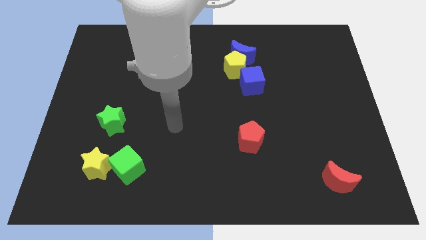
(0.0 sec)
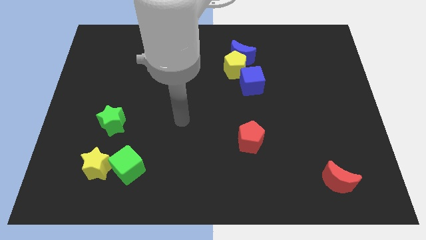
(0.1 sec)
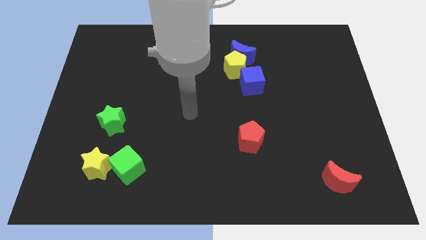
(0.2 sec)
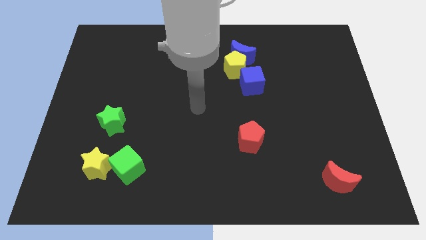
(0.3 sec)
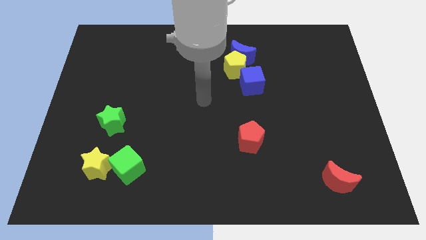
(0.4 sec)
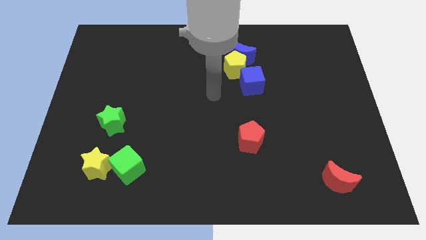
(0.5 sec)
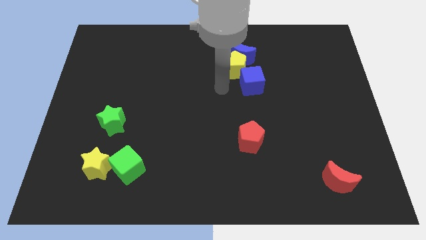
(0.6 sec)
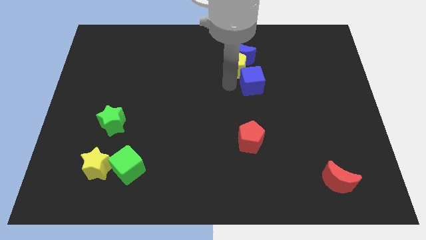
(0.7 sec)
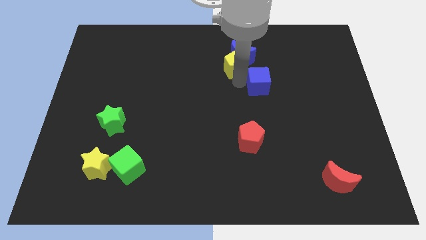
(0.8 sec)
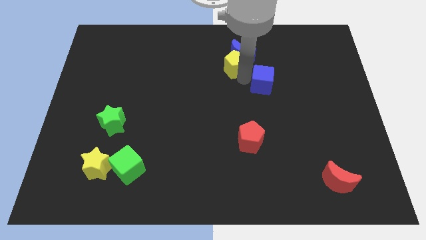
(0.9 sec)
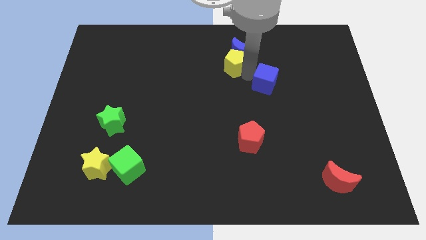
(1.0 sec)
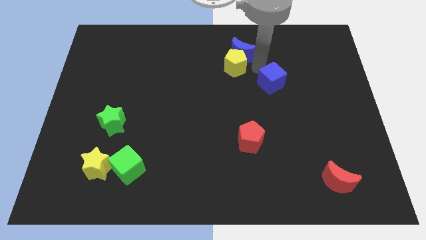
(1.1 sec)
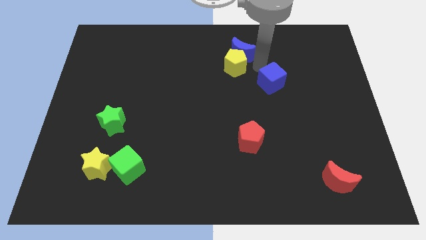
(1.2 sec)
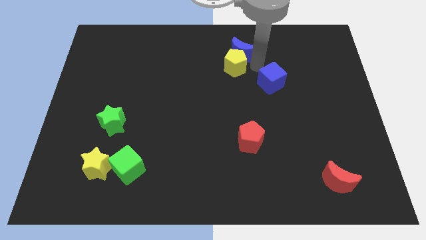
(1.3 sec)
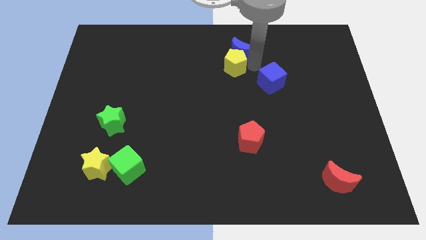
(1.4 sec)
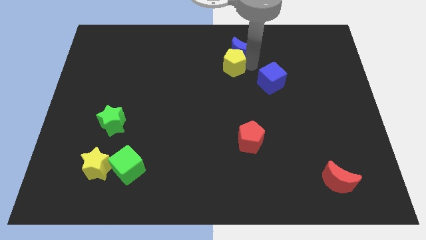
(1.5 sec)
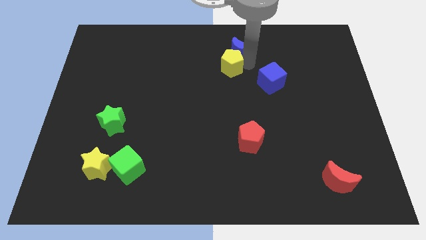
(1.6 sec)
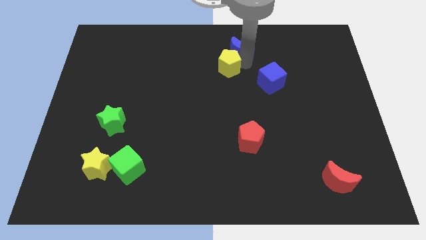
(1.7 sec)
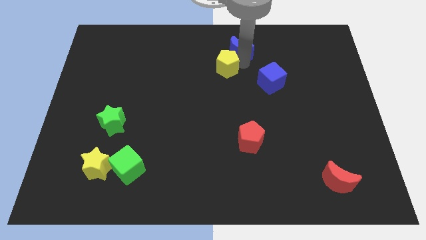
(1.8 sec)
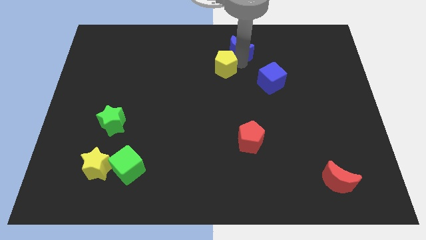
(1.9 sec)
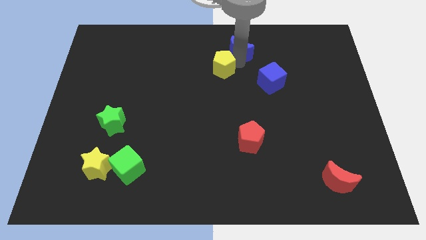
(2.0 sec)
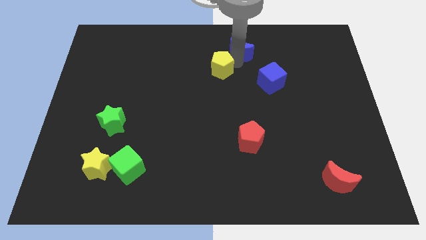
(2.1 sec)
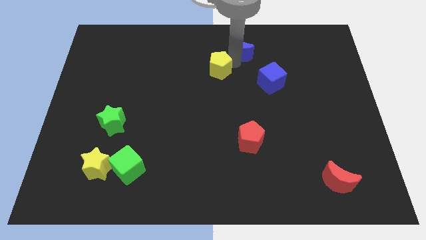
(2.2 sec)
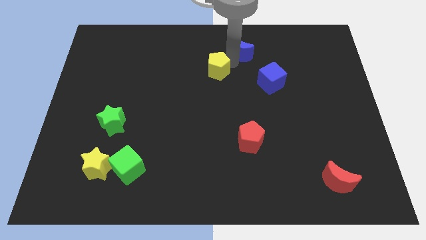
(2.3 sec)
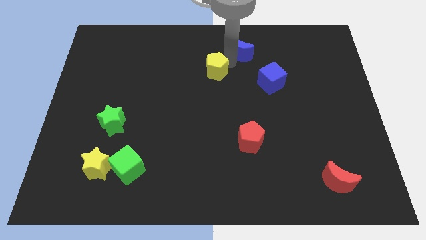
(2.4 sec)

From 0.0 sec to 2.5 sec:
separate the yellow pentagon from the blue moon and blue cube

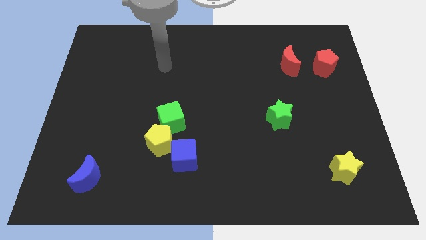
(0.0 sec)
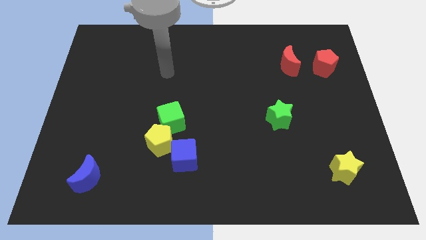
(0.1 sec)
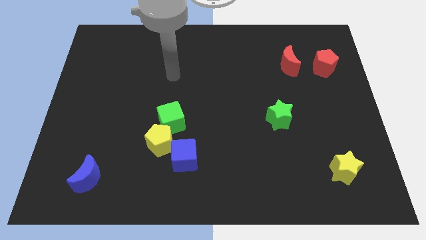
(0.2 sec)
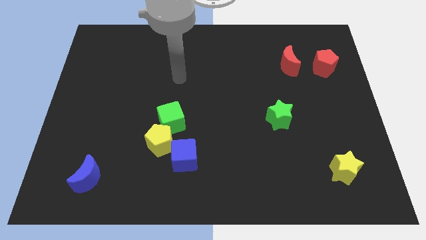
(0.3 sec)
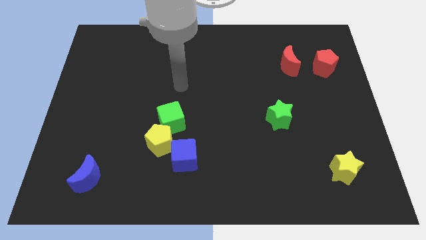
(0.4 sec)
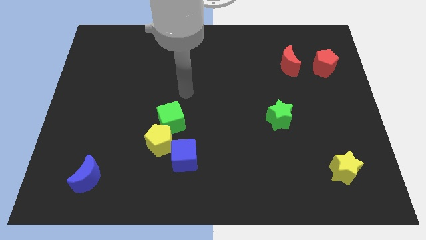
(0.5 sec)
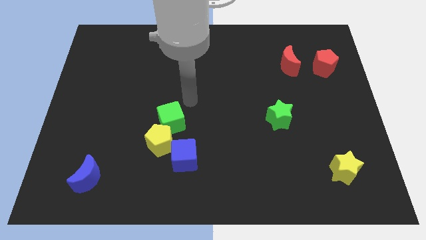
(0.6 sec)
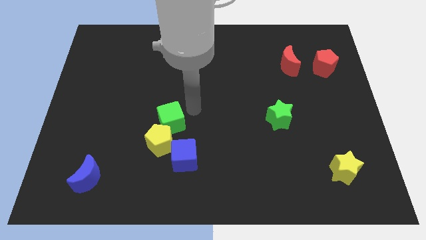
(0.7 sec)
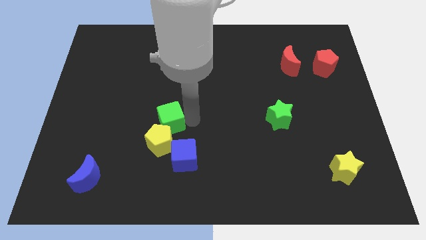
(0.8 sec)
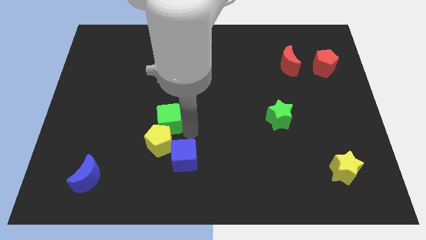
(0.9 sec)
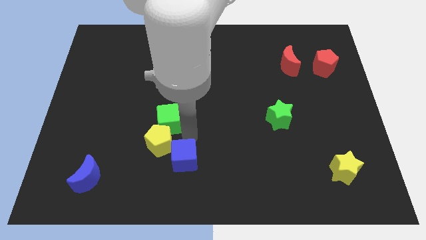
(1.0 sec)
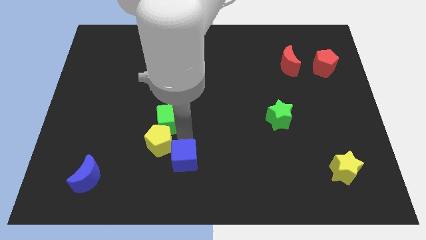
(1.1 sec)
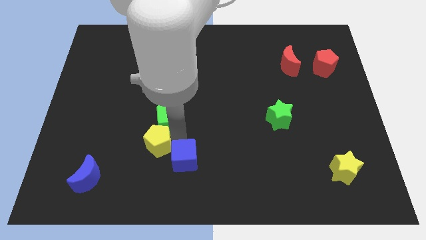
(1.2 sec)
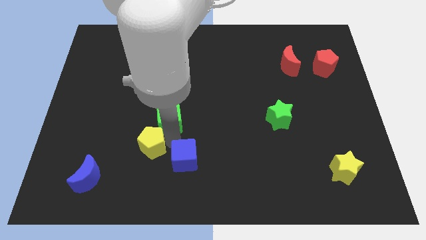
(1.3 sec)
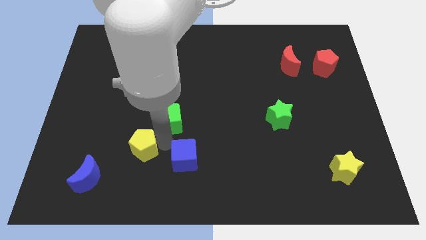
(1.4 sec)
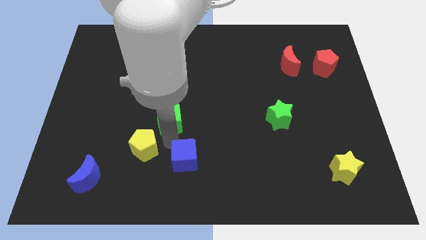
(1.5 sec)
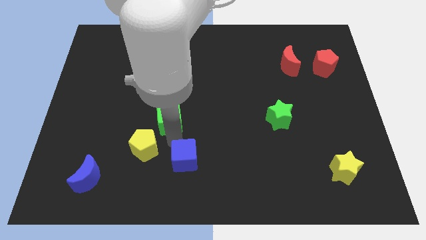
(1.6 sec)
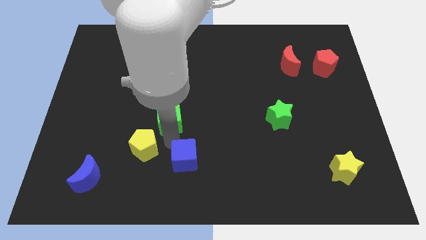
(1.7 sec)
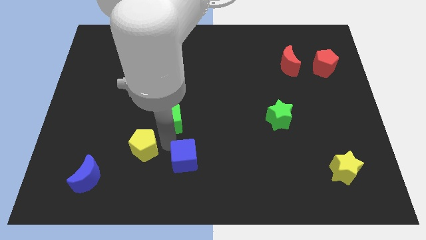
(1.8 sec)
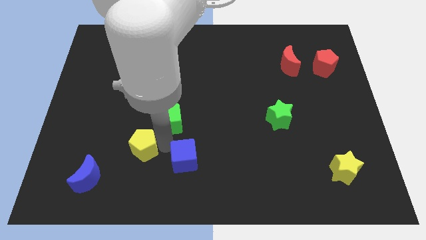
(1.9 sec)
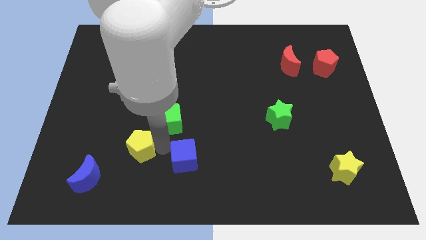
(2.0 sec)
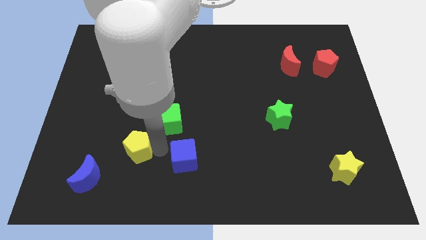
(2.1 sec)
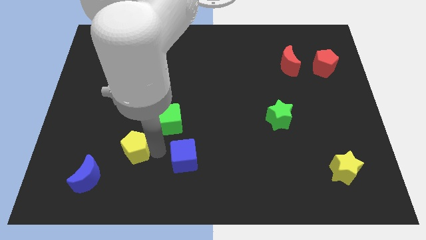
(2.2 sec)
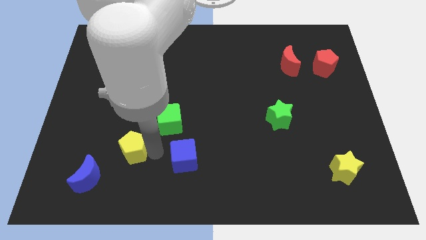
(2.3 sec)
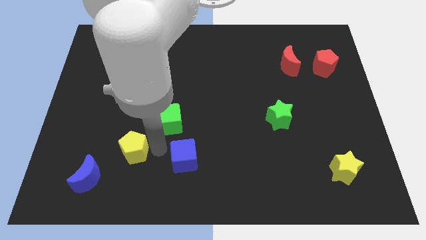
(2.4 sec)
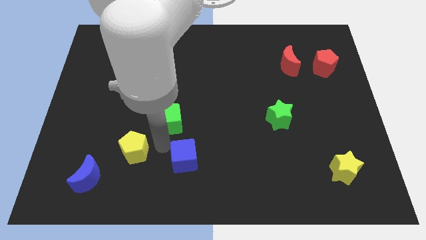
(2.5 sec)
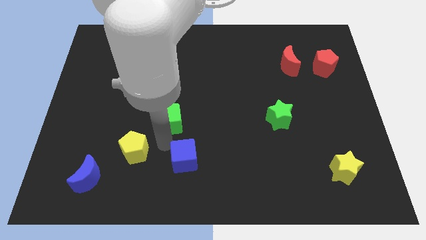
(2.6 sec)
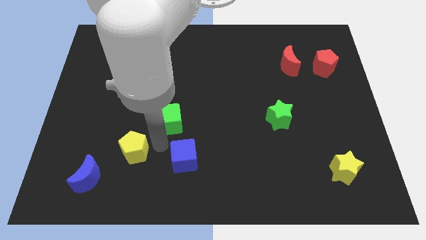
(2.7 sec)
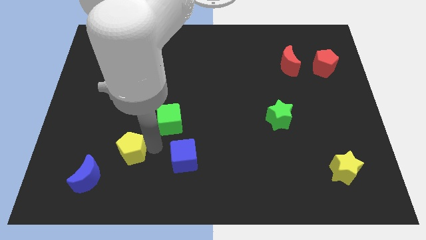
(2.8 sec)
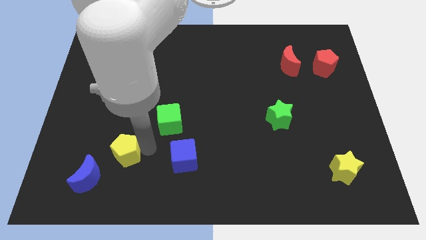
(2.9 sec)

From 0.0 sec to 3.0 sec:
move the yellow pentagon away from the green cube and blue cube

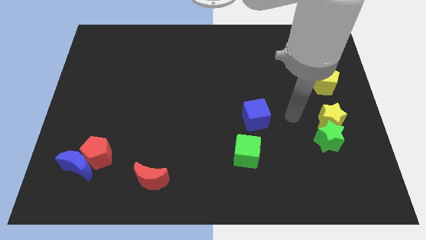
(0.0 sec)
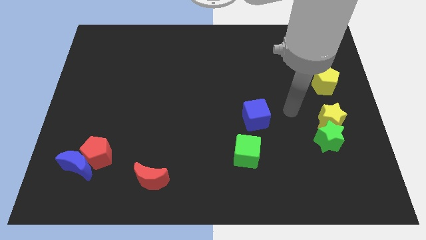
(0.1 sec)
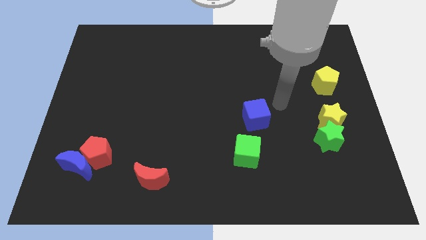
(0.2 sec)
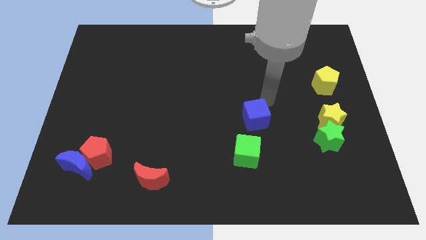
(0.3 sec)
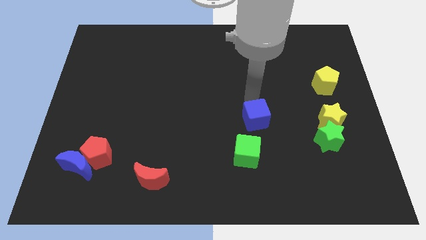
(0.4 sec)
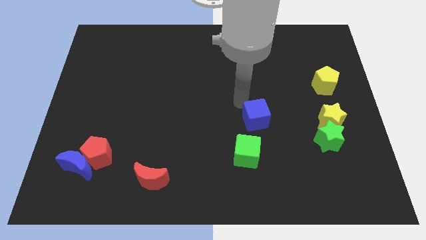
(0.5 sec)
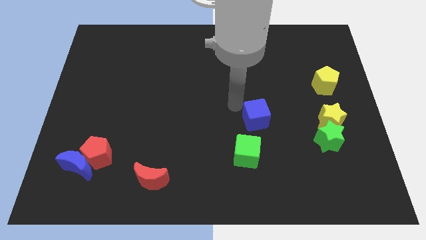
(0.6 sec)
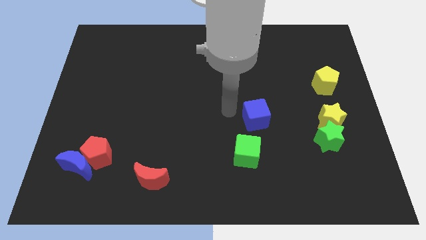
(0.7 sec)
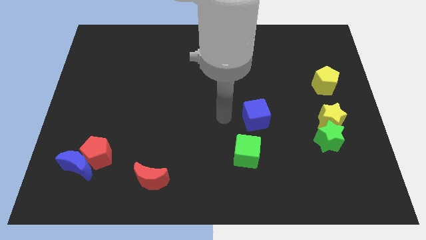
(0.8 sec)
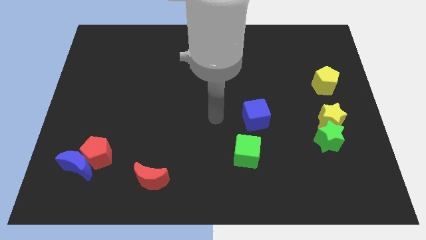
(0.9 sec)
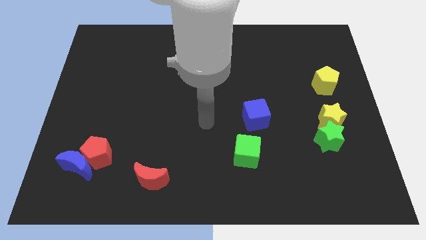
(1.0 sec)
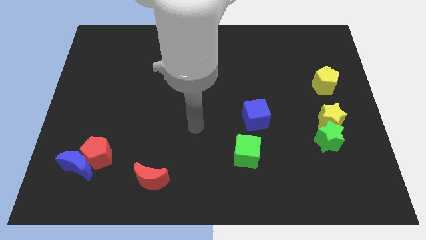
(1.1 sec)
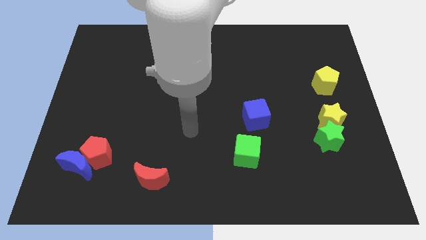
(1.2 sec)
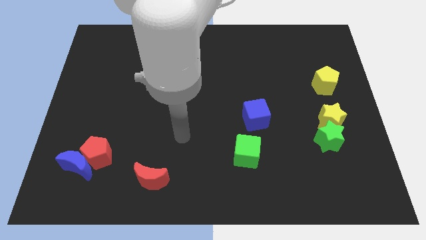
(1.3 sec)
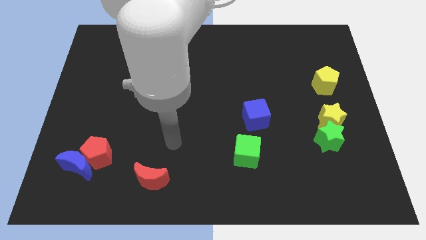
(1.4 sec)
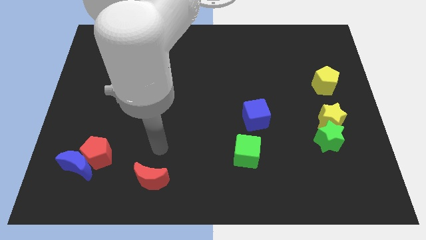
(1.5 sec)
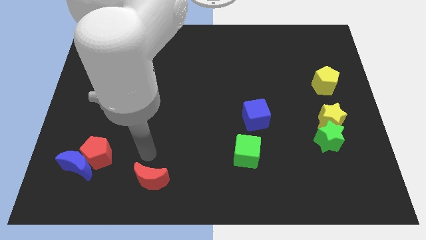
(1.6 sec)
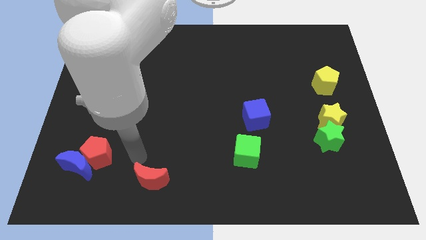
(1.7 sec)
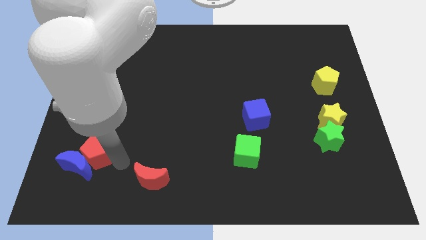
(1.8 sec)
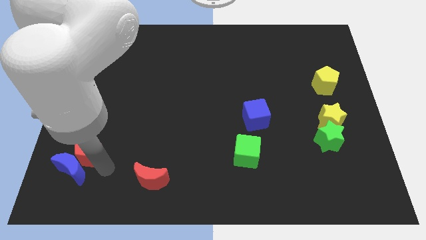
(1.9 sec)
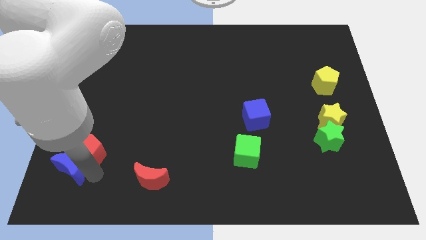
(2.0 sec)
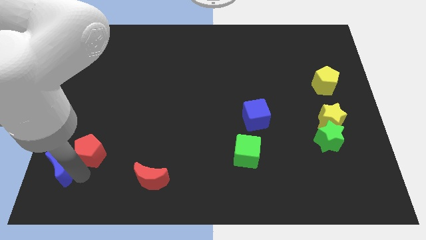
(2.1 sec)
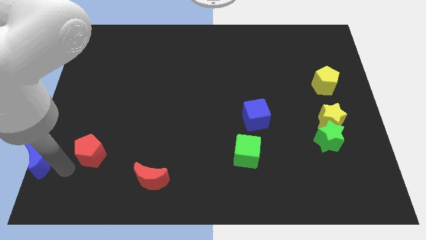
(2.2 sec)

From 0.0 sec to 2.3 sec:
separate the red pentagon from the blue moon

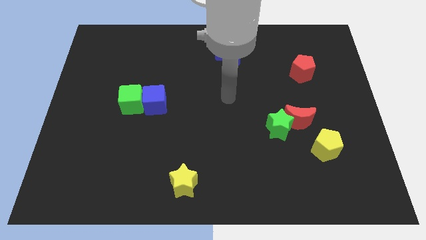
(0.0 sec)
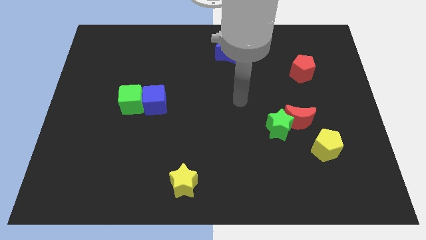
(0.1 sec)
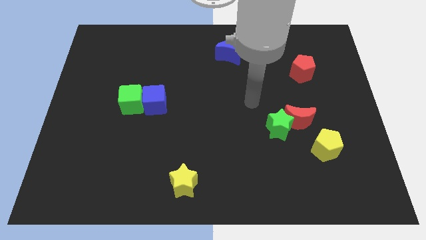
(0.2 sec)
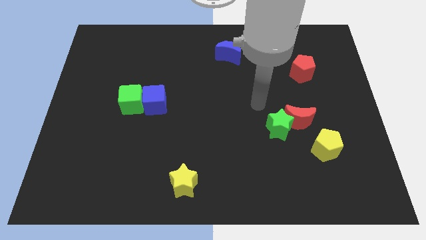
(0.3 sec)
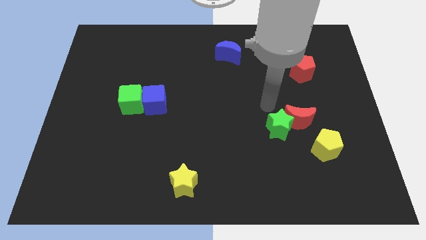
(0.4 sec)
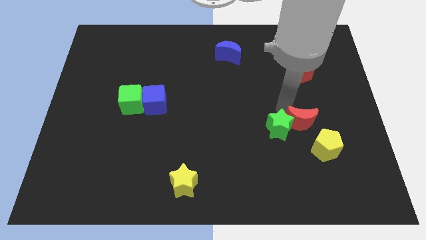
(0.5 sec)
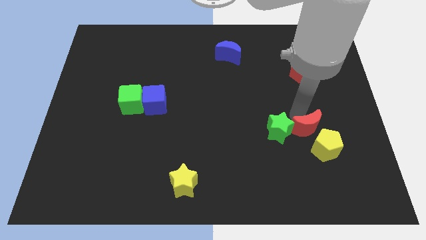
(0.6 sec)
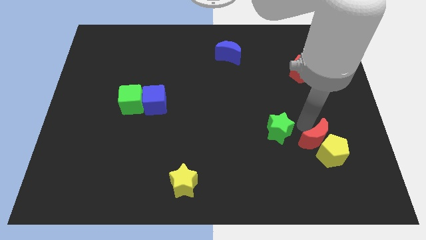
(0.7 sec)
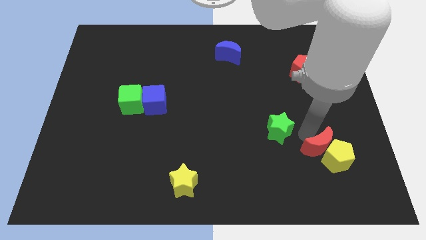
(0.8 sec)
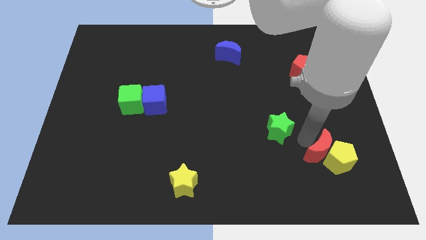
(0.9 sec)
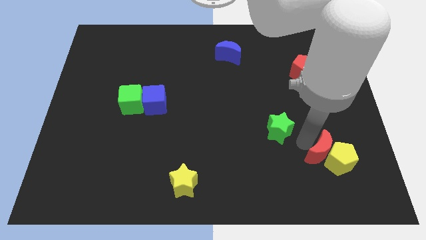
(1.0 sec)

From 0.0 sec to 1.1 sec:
pull the green star apart from the red moon

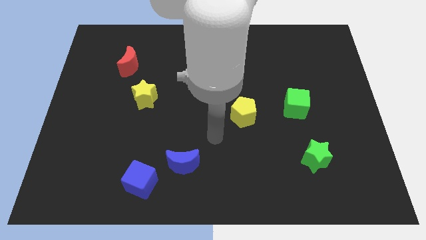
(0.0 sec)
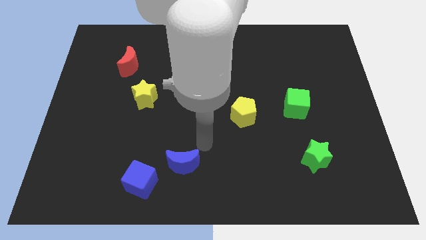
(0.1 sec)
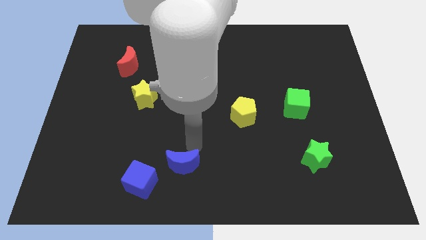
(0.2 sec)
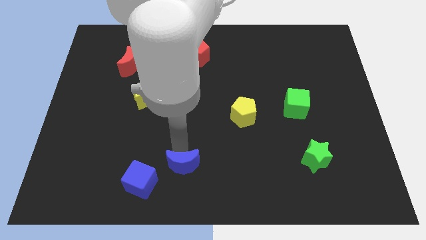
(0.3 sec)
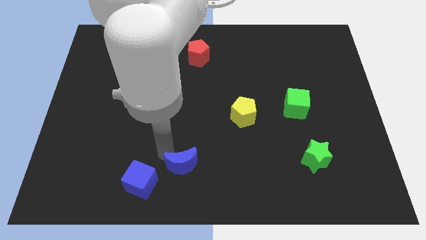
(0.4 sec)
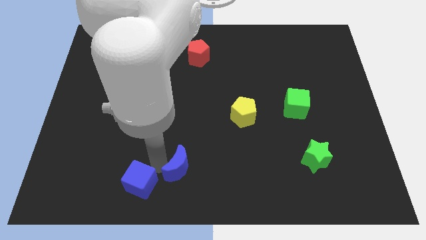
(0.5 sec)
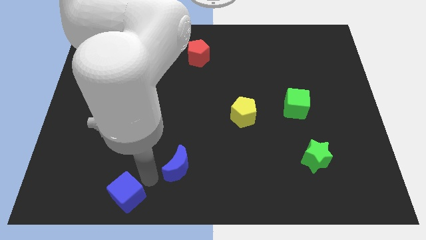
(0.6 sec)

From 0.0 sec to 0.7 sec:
separate the blue moon from the blue cube
